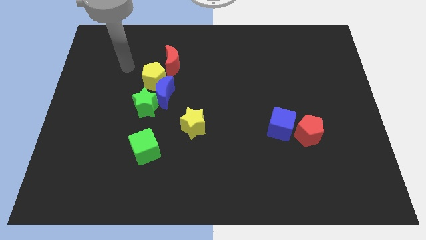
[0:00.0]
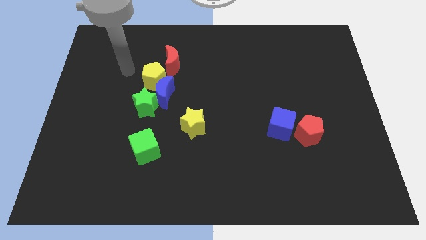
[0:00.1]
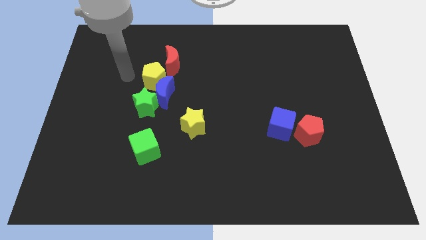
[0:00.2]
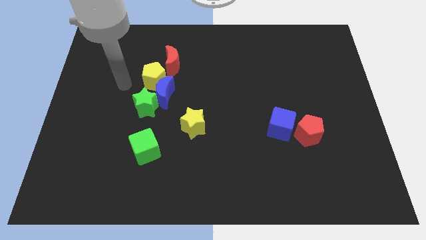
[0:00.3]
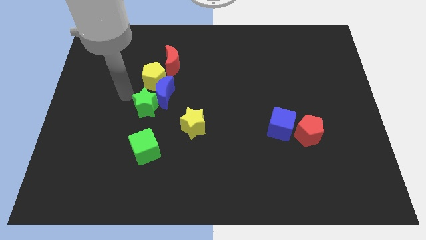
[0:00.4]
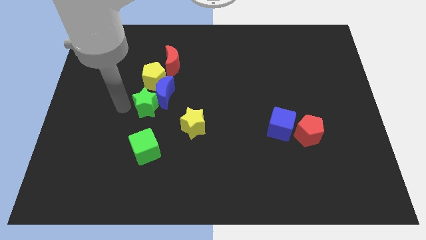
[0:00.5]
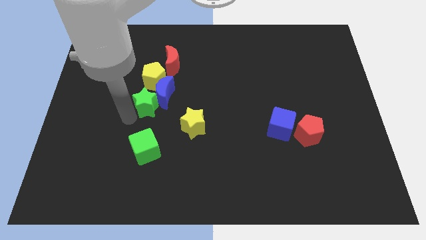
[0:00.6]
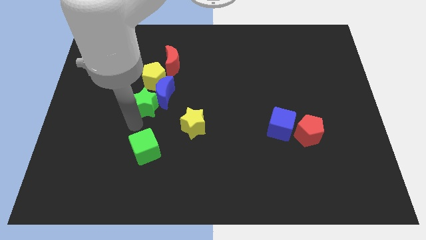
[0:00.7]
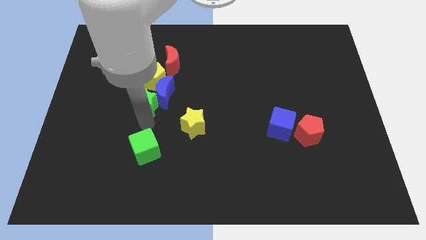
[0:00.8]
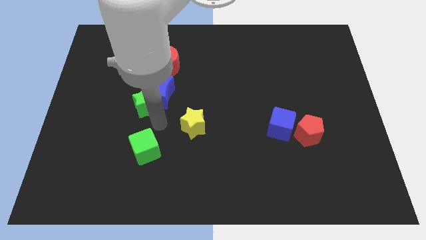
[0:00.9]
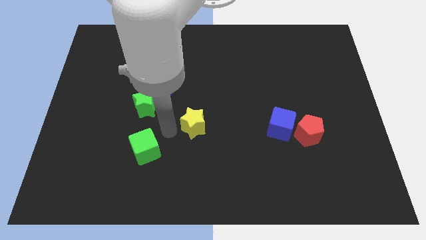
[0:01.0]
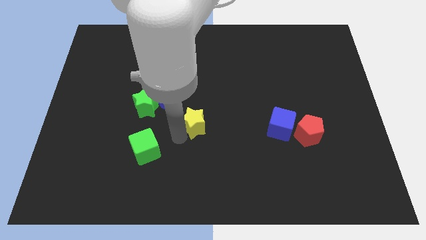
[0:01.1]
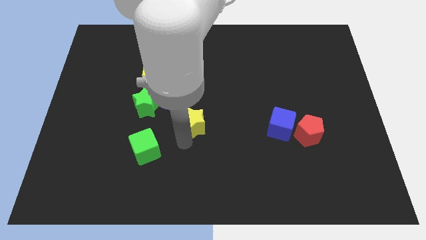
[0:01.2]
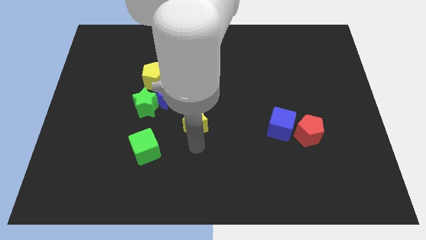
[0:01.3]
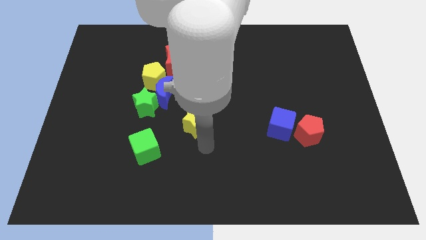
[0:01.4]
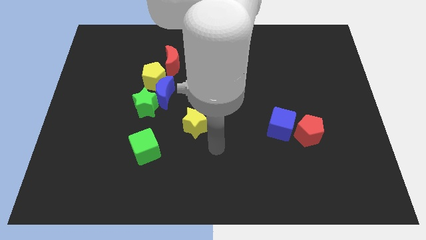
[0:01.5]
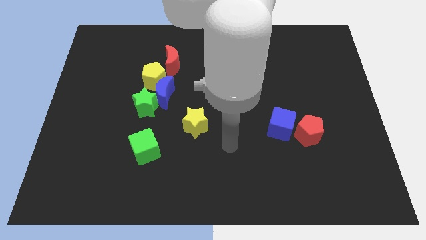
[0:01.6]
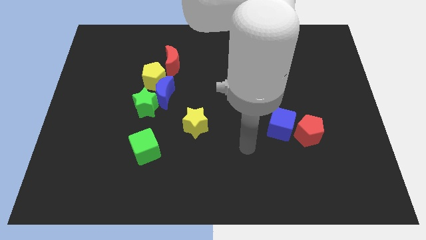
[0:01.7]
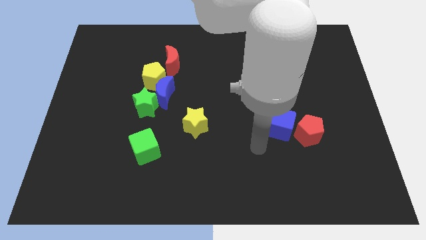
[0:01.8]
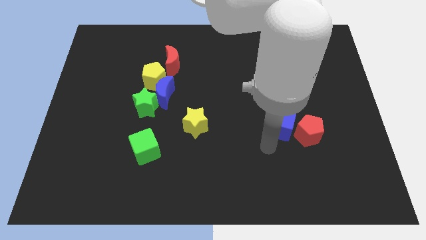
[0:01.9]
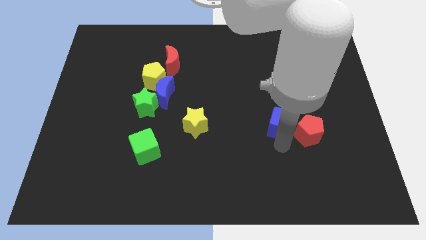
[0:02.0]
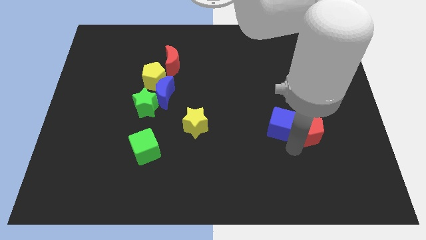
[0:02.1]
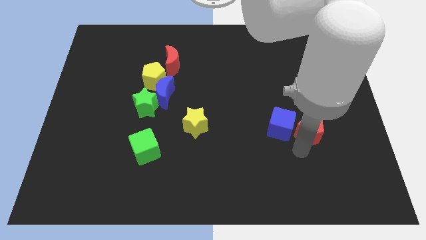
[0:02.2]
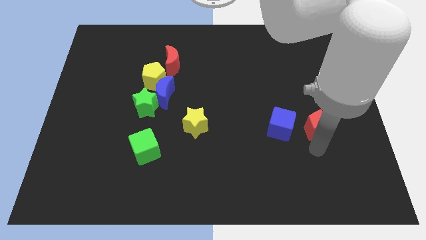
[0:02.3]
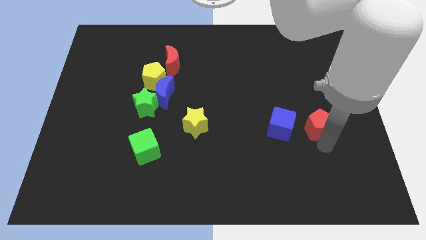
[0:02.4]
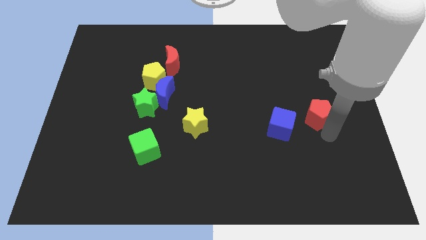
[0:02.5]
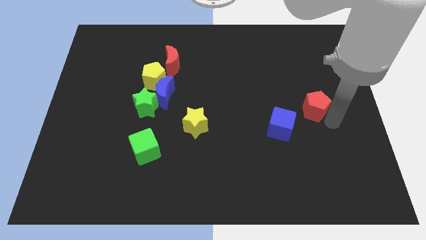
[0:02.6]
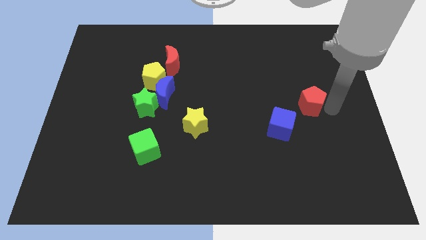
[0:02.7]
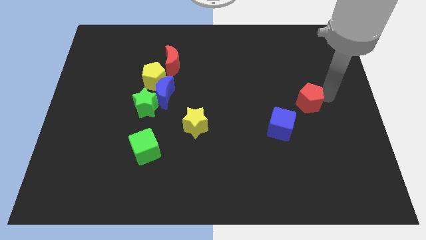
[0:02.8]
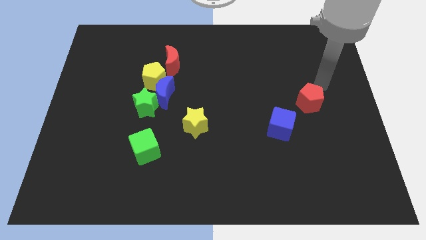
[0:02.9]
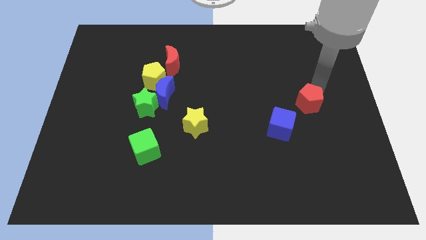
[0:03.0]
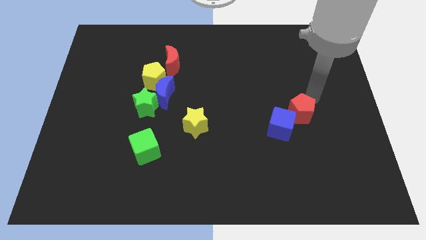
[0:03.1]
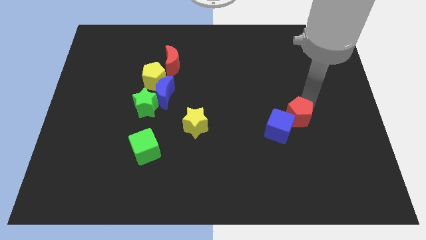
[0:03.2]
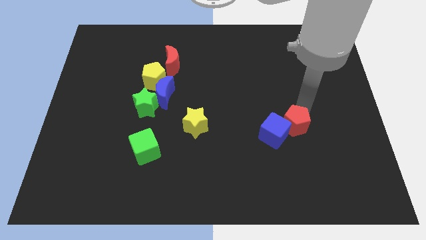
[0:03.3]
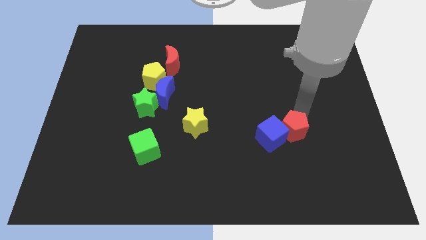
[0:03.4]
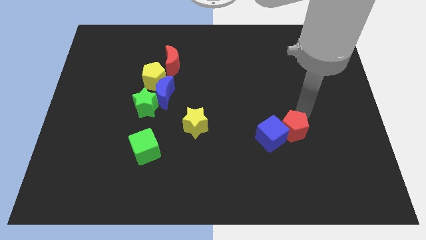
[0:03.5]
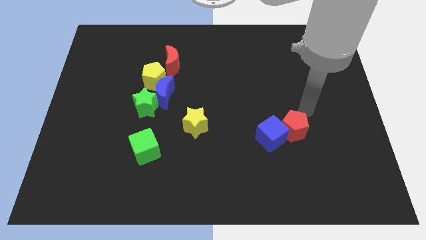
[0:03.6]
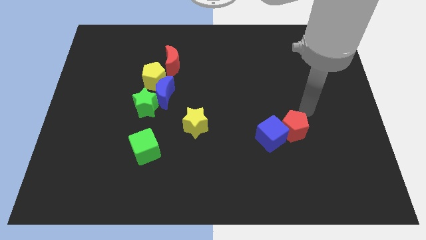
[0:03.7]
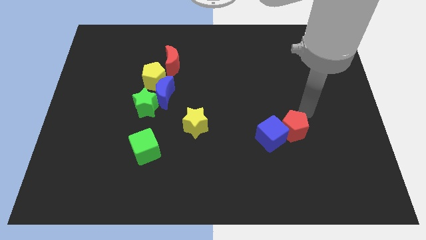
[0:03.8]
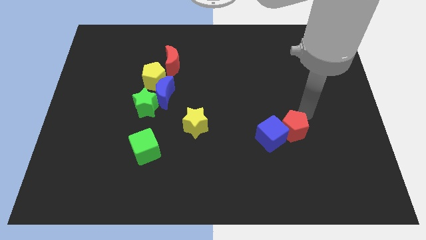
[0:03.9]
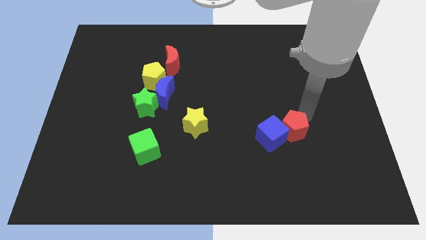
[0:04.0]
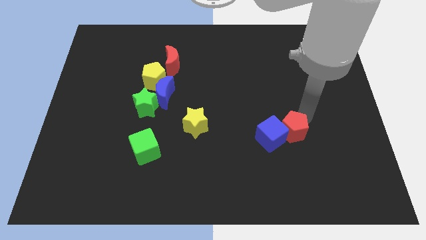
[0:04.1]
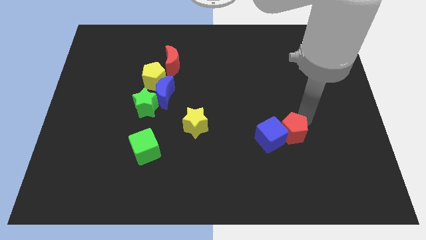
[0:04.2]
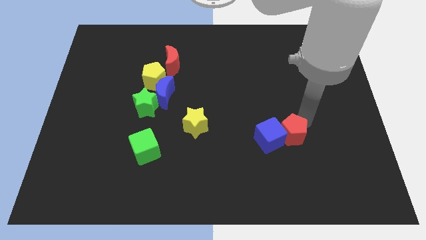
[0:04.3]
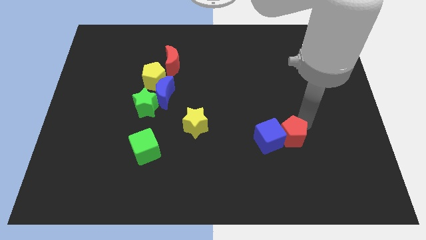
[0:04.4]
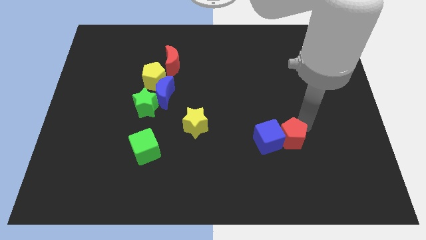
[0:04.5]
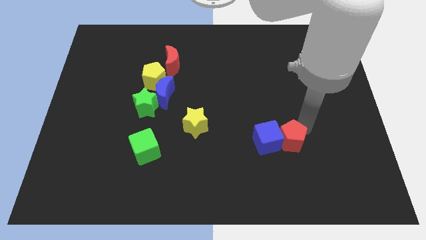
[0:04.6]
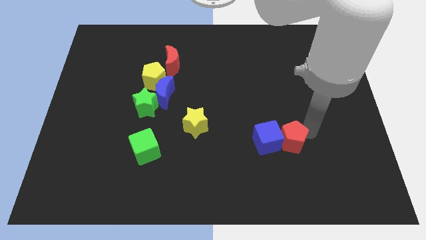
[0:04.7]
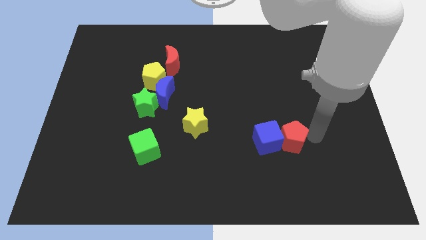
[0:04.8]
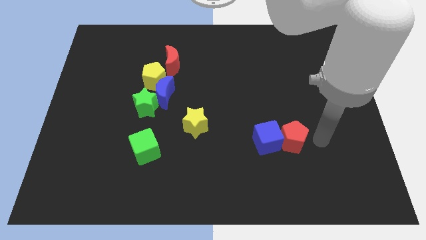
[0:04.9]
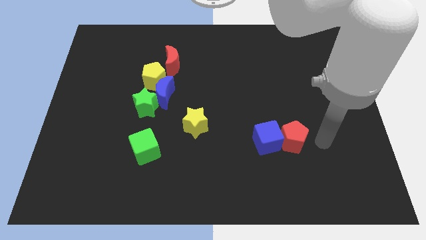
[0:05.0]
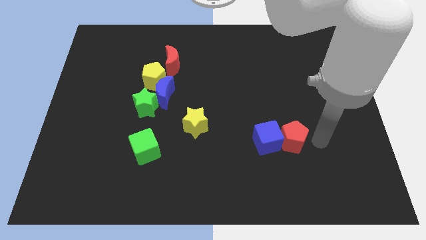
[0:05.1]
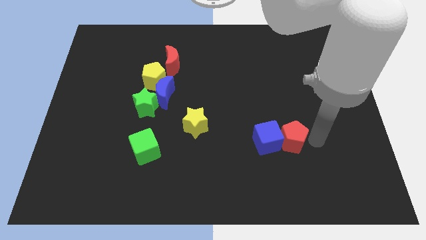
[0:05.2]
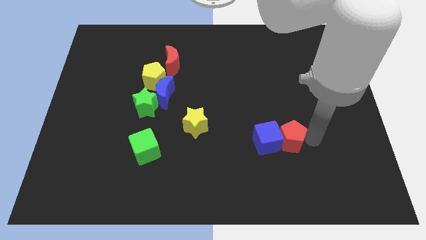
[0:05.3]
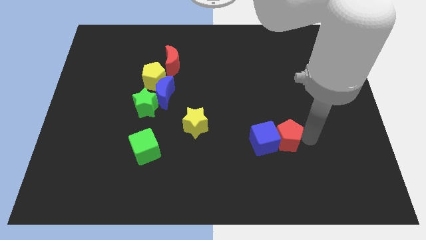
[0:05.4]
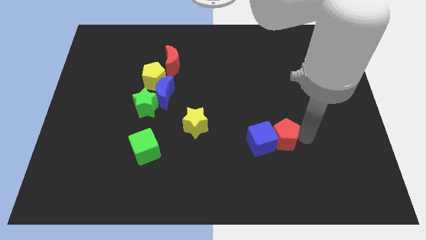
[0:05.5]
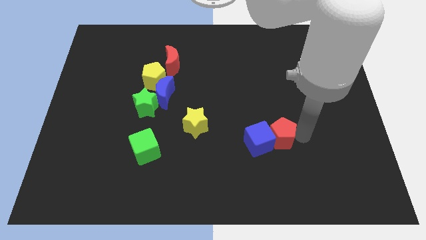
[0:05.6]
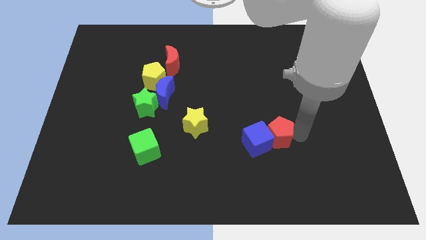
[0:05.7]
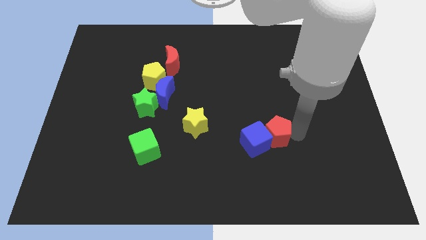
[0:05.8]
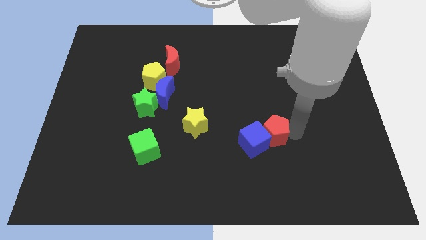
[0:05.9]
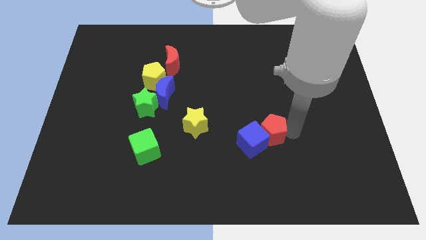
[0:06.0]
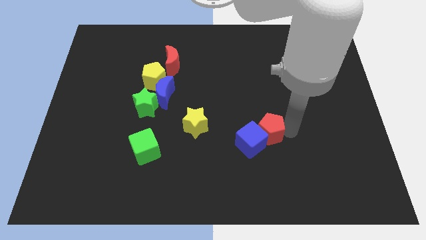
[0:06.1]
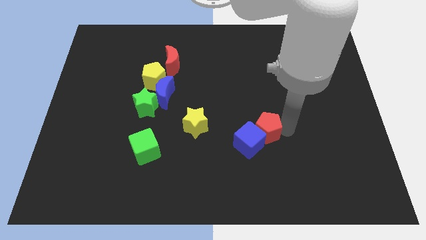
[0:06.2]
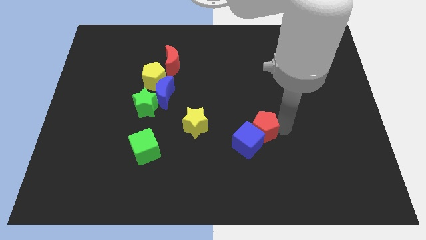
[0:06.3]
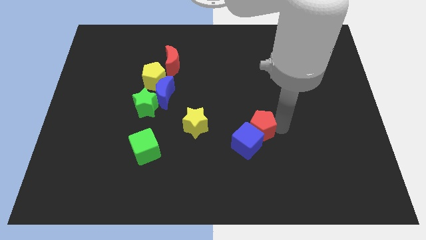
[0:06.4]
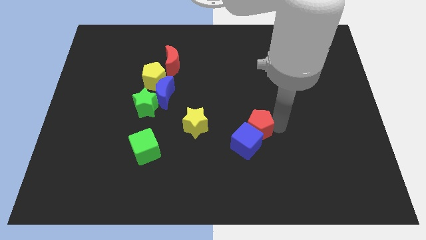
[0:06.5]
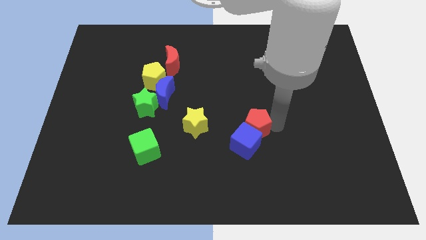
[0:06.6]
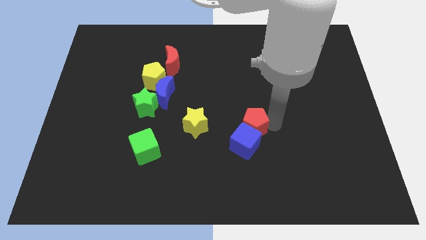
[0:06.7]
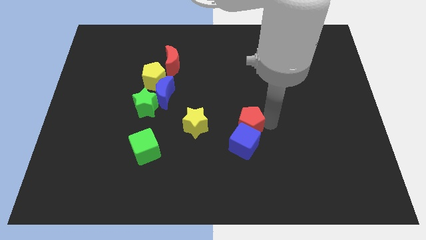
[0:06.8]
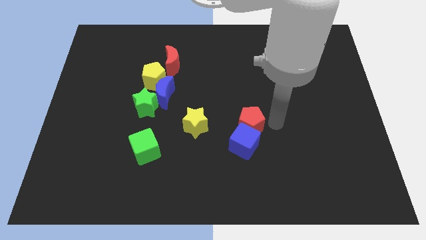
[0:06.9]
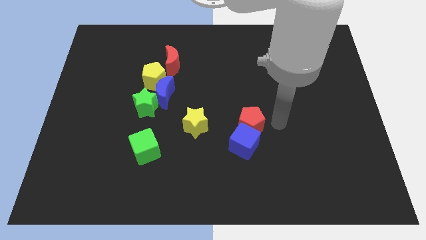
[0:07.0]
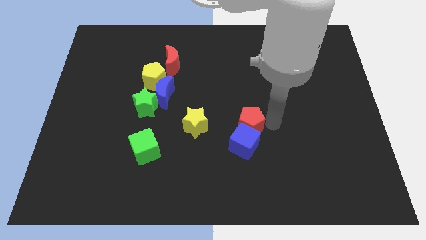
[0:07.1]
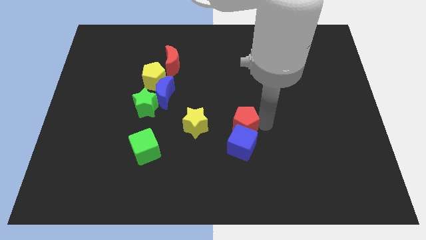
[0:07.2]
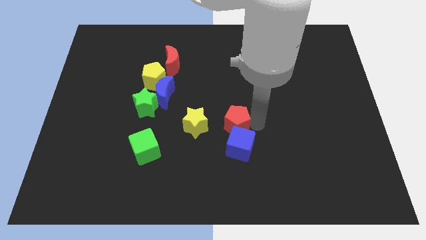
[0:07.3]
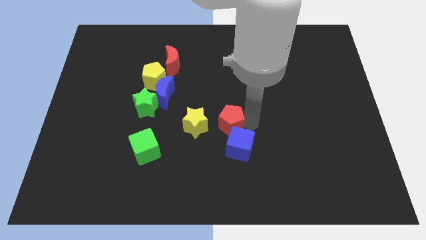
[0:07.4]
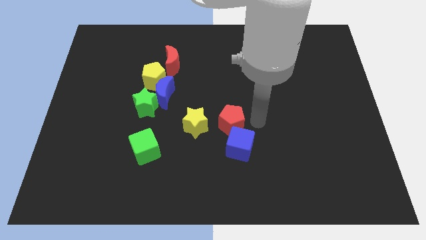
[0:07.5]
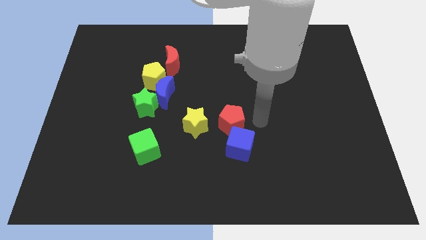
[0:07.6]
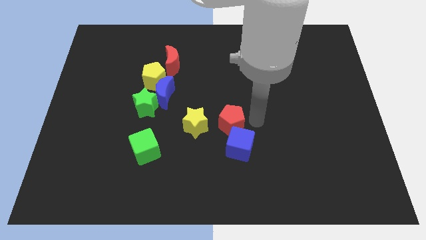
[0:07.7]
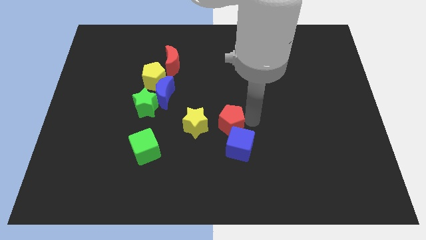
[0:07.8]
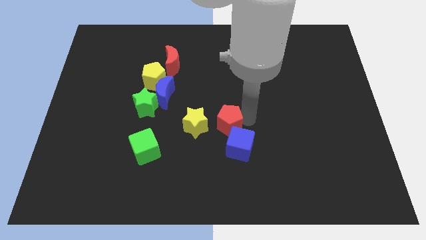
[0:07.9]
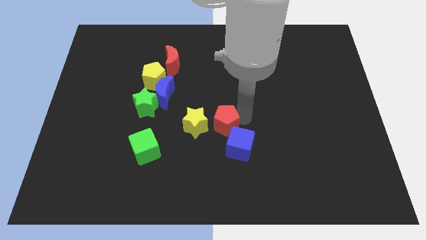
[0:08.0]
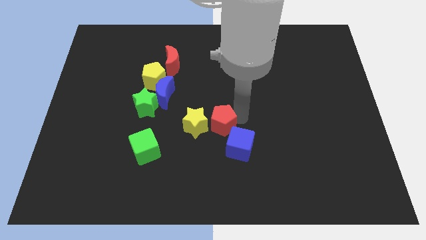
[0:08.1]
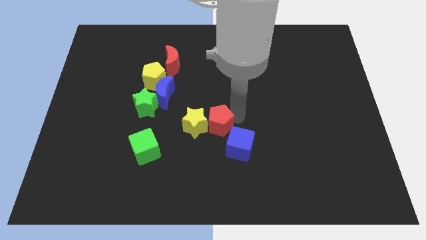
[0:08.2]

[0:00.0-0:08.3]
slide the red pentagon next to the yellow star
